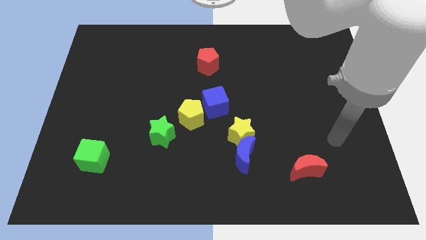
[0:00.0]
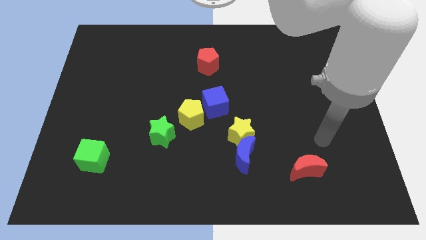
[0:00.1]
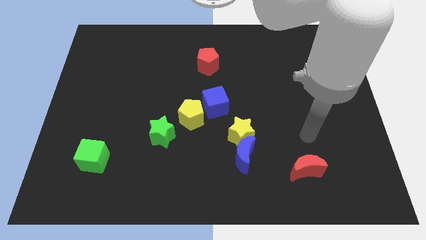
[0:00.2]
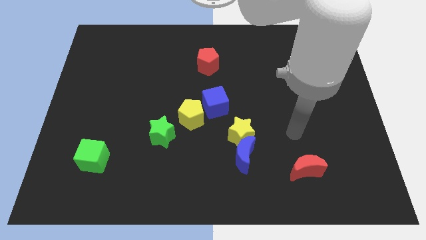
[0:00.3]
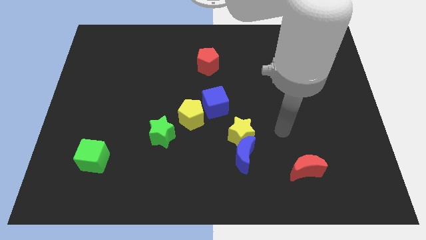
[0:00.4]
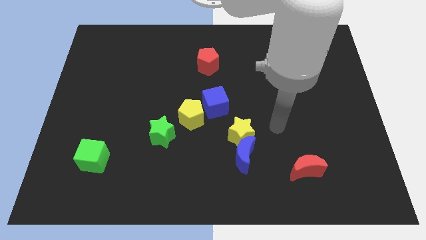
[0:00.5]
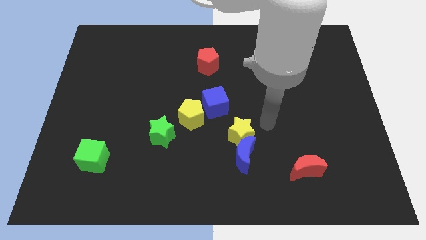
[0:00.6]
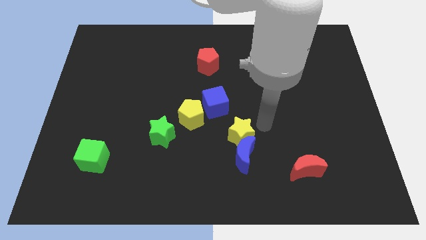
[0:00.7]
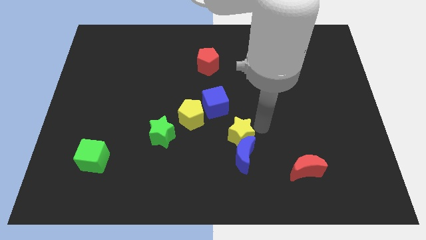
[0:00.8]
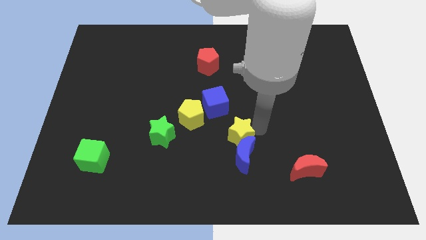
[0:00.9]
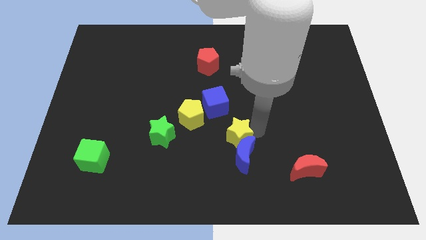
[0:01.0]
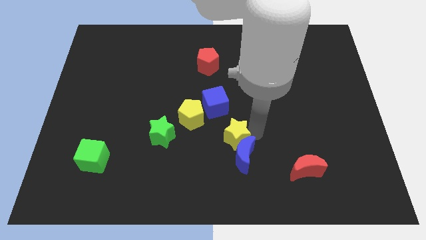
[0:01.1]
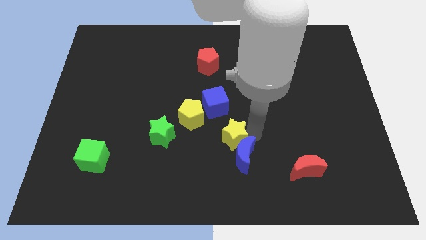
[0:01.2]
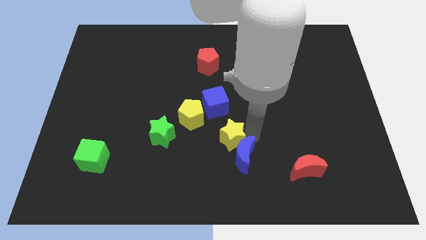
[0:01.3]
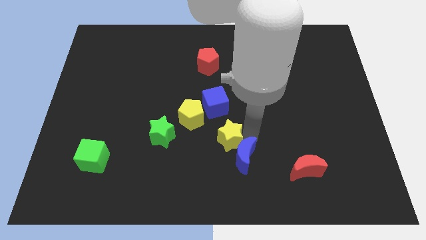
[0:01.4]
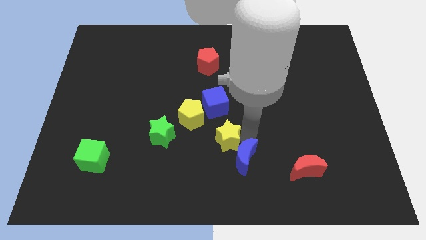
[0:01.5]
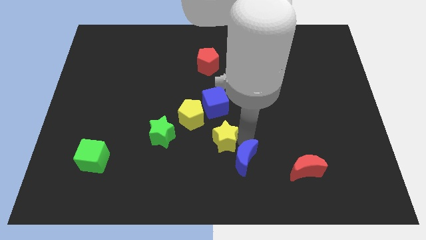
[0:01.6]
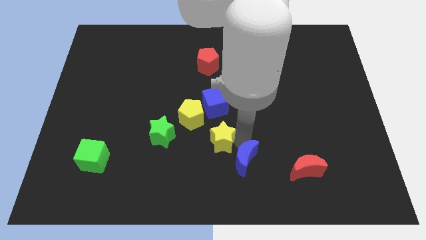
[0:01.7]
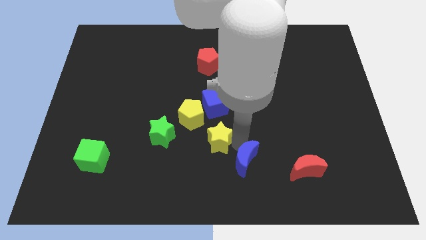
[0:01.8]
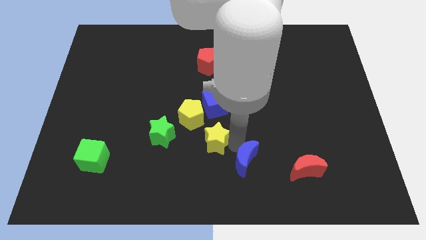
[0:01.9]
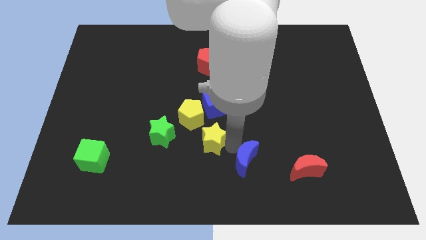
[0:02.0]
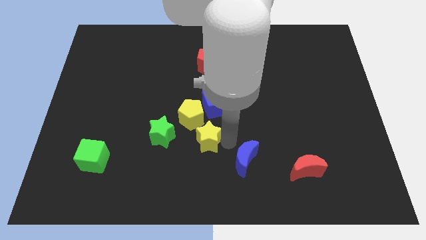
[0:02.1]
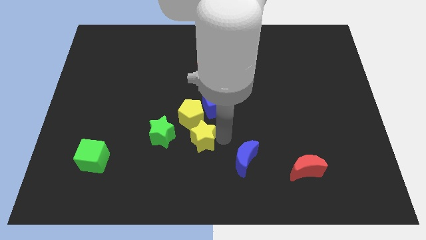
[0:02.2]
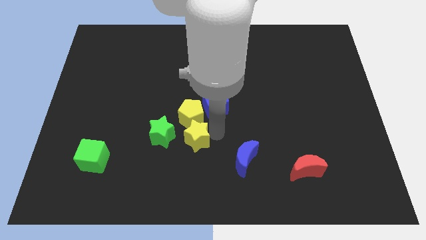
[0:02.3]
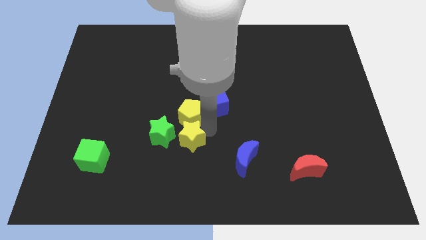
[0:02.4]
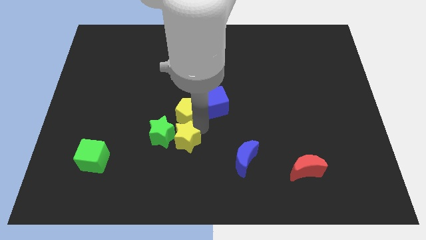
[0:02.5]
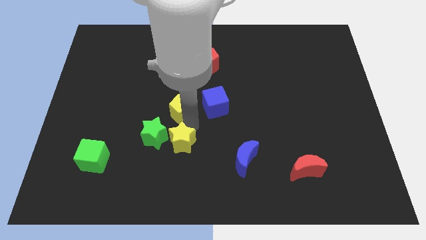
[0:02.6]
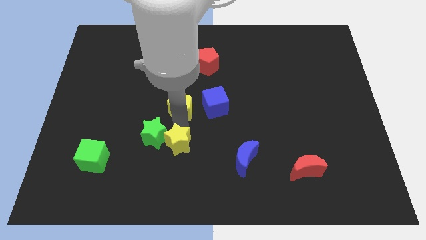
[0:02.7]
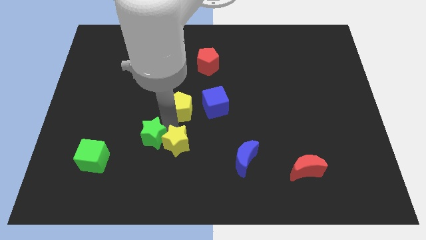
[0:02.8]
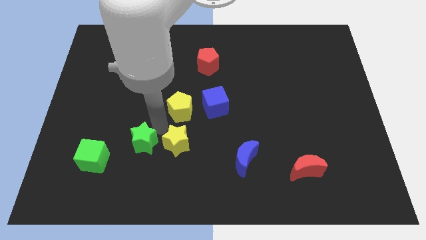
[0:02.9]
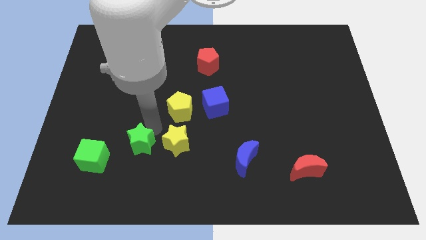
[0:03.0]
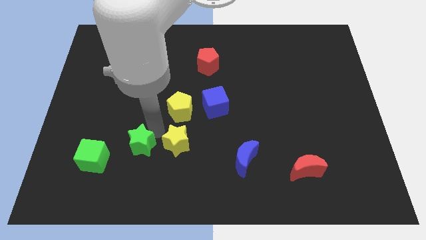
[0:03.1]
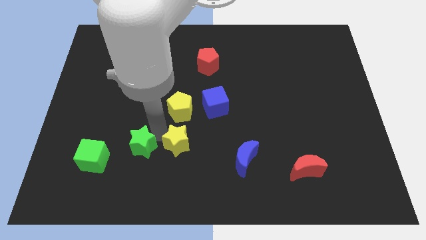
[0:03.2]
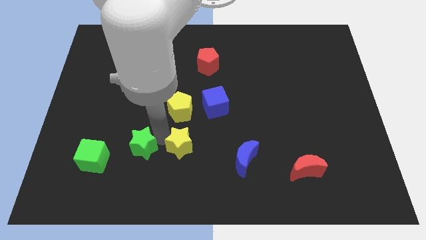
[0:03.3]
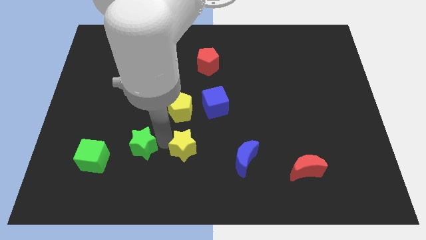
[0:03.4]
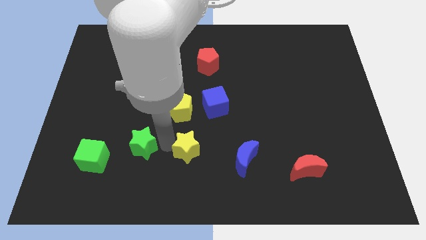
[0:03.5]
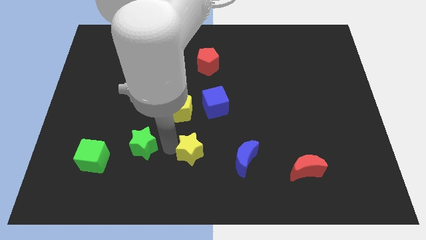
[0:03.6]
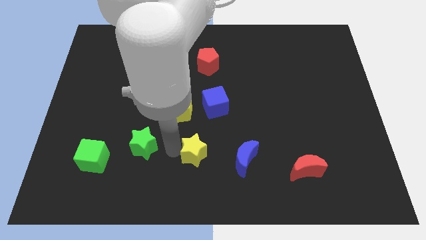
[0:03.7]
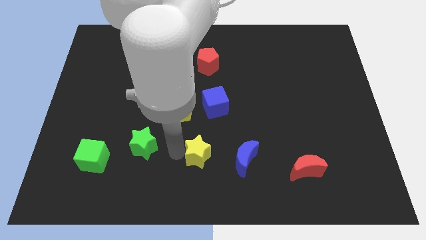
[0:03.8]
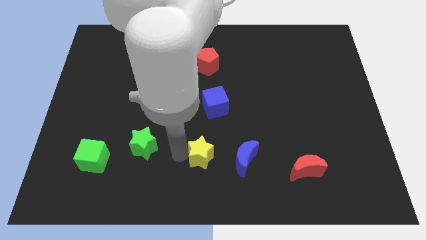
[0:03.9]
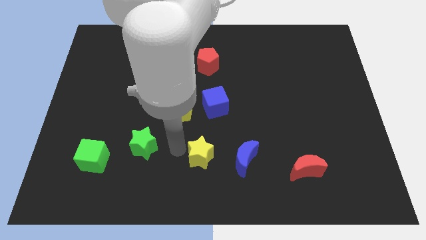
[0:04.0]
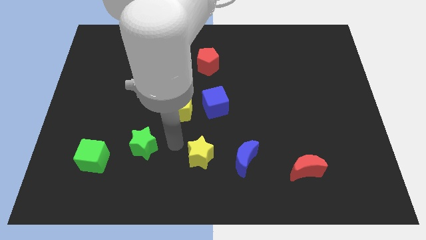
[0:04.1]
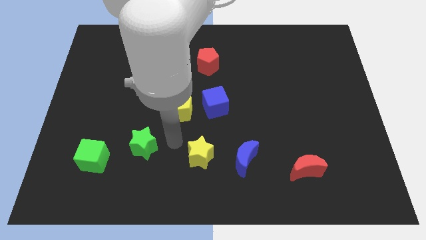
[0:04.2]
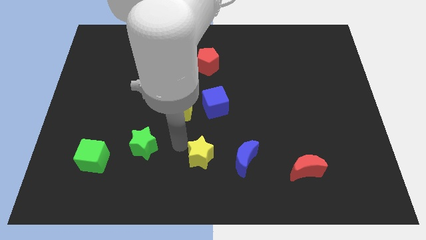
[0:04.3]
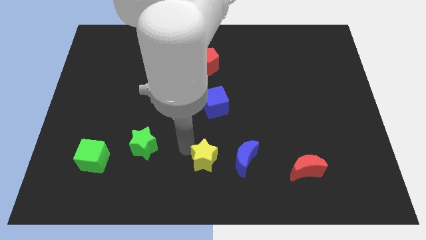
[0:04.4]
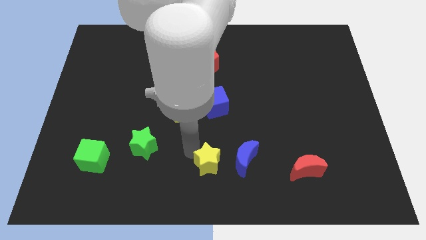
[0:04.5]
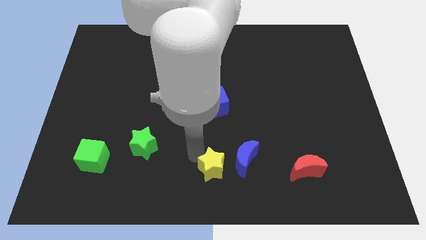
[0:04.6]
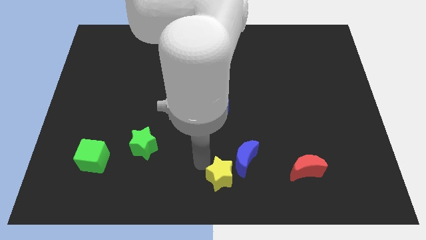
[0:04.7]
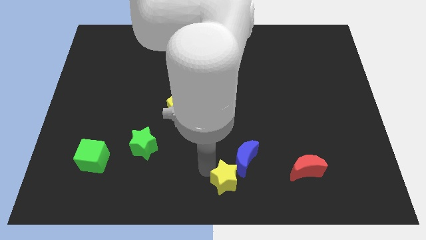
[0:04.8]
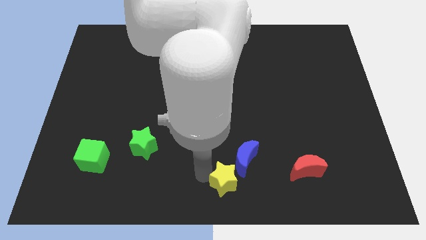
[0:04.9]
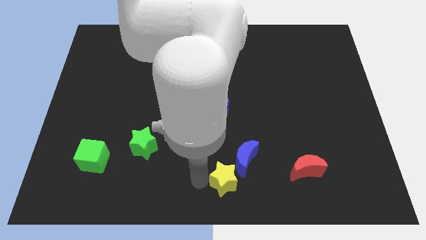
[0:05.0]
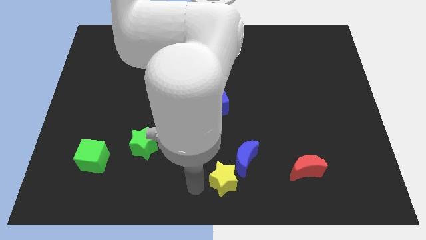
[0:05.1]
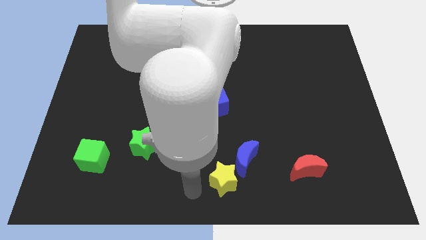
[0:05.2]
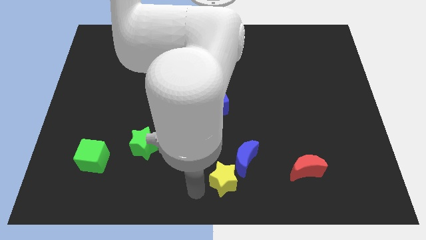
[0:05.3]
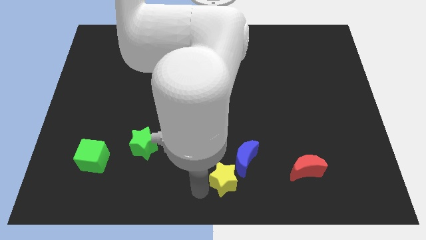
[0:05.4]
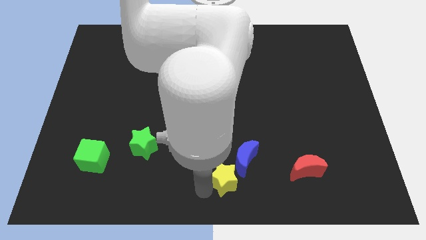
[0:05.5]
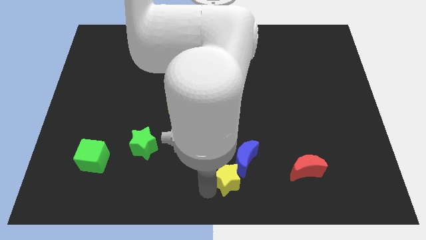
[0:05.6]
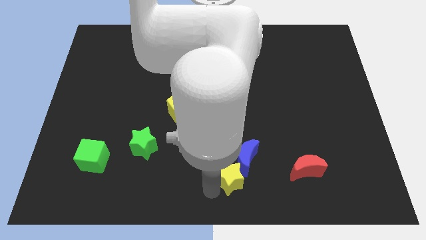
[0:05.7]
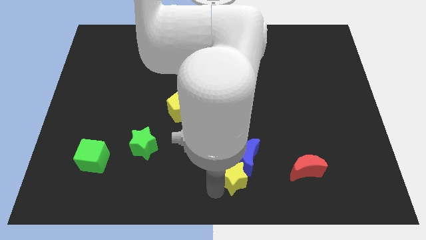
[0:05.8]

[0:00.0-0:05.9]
move the yellow star just left of the red moon
